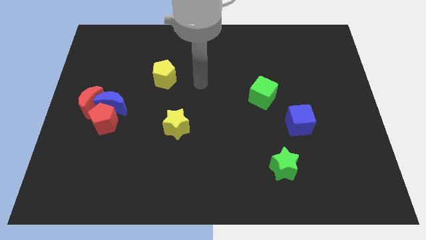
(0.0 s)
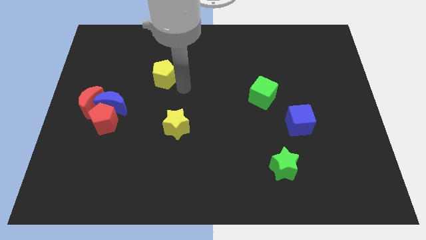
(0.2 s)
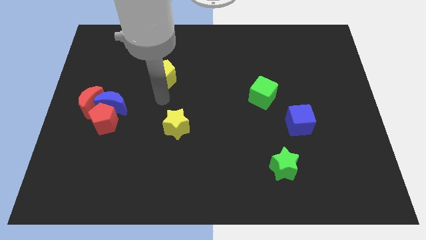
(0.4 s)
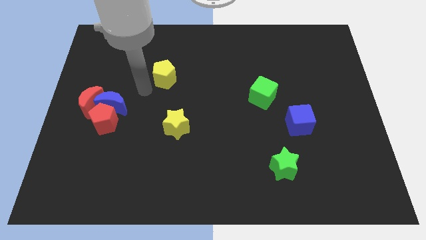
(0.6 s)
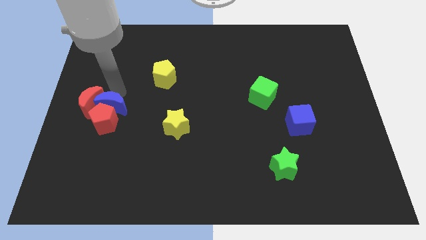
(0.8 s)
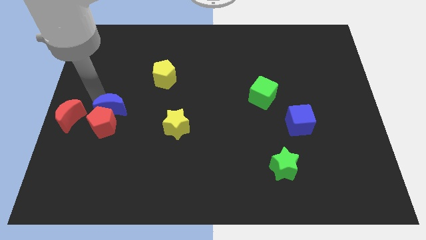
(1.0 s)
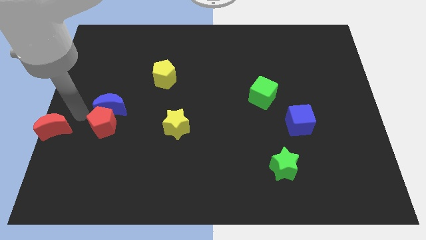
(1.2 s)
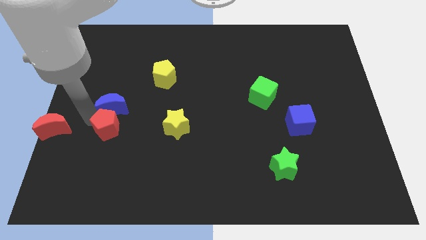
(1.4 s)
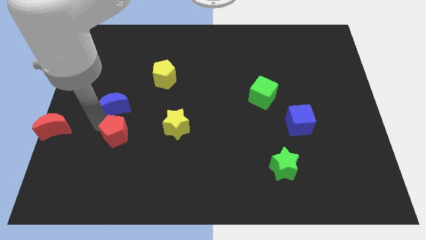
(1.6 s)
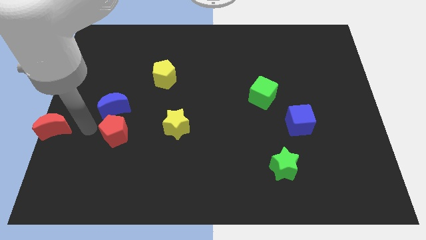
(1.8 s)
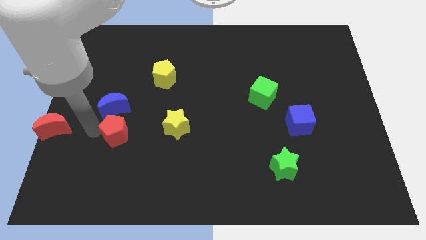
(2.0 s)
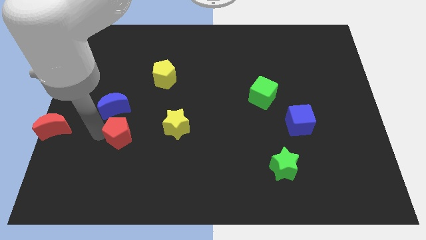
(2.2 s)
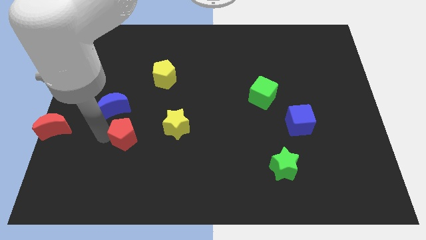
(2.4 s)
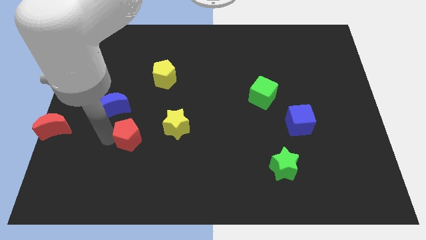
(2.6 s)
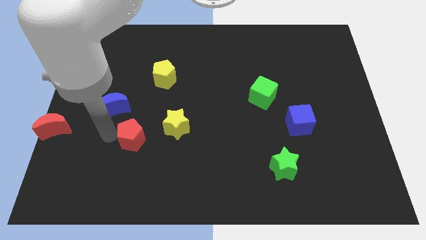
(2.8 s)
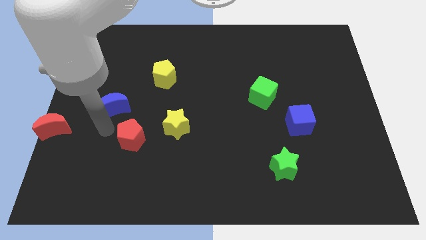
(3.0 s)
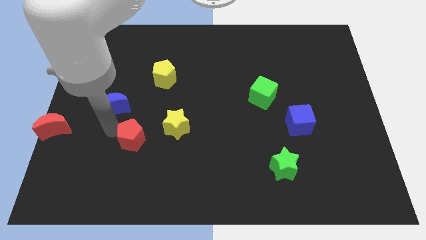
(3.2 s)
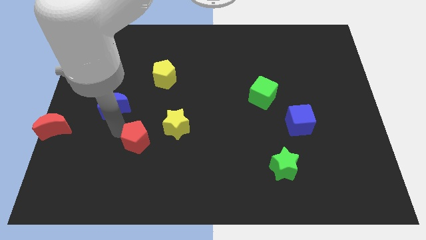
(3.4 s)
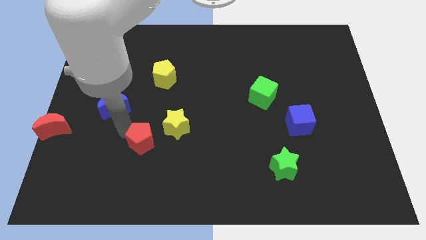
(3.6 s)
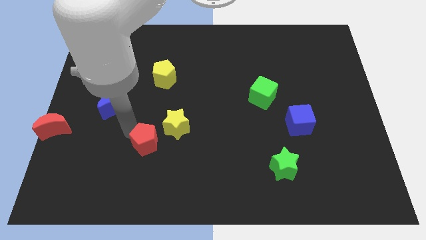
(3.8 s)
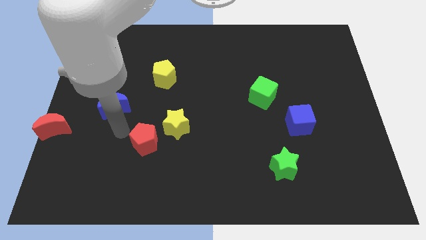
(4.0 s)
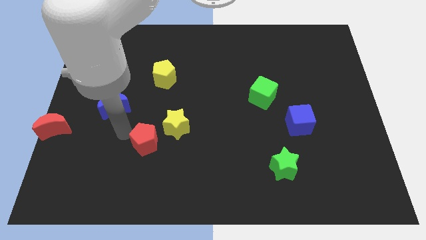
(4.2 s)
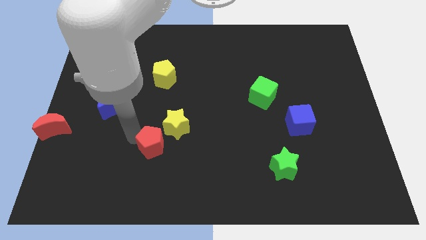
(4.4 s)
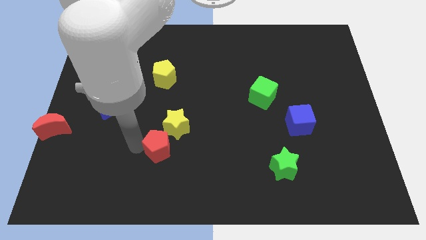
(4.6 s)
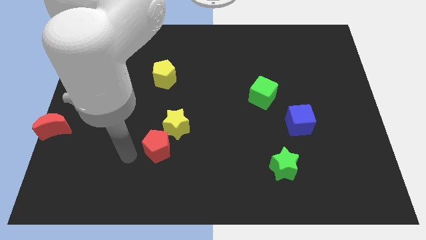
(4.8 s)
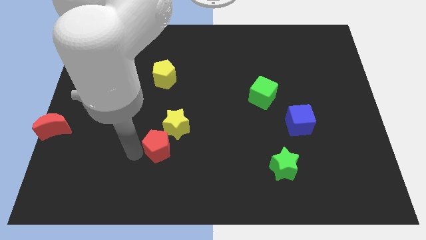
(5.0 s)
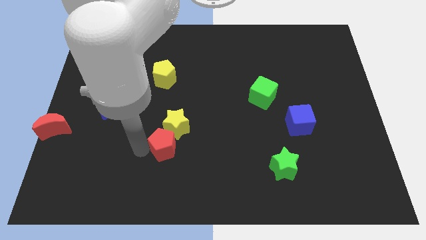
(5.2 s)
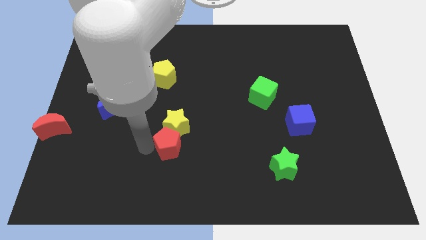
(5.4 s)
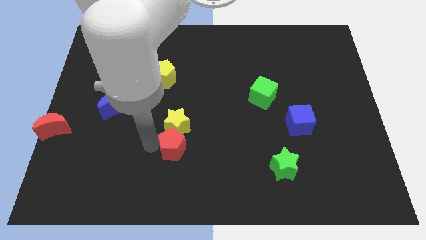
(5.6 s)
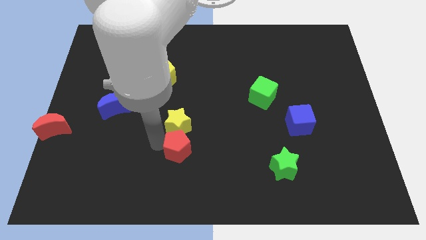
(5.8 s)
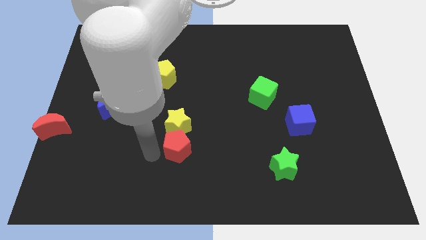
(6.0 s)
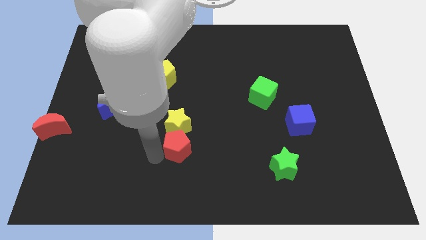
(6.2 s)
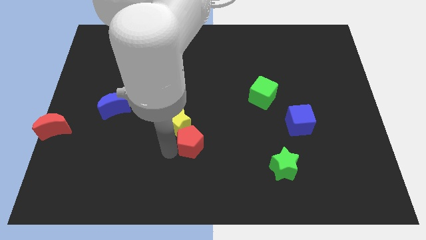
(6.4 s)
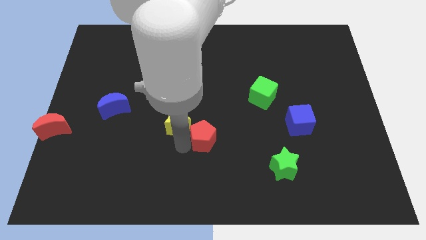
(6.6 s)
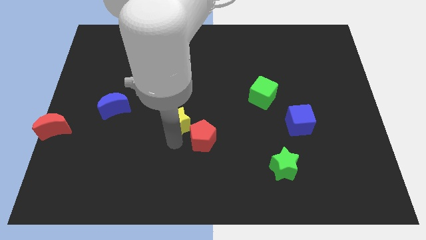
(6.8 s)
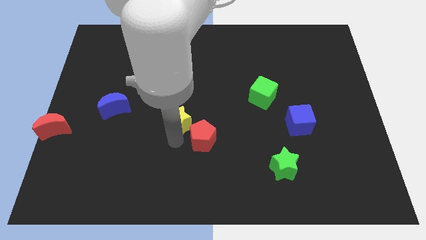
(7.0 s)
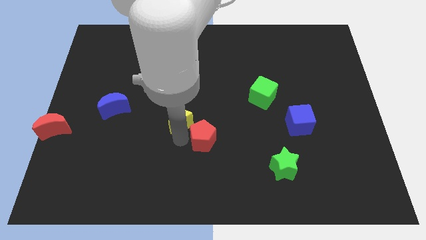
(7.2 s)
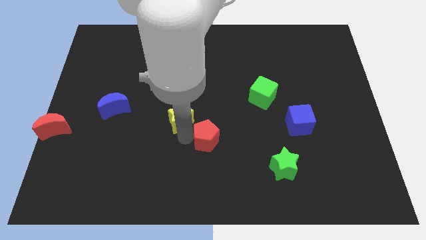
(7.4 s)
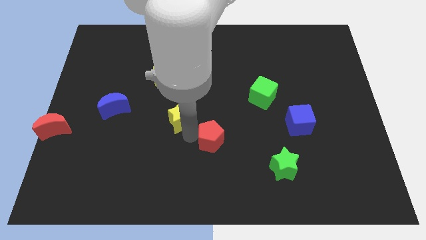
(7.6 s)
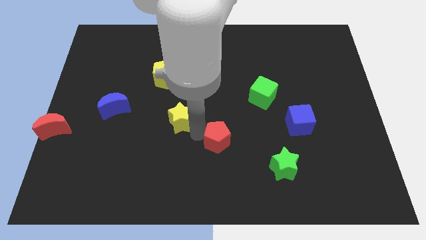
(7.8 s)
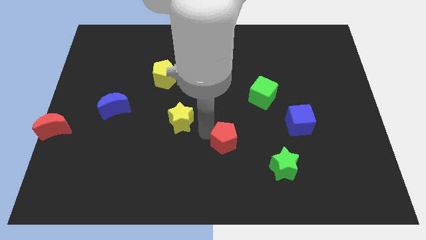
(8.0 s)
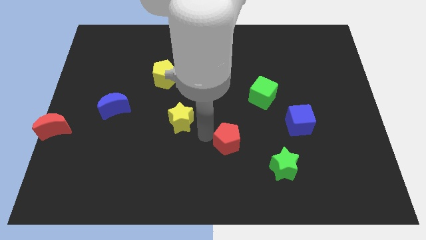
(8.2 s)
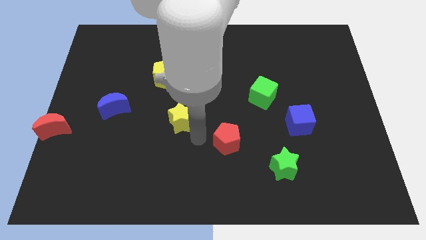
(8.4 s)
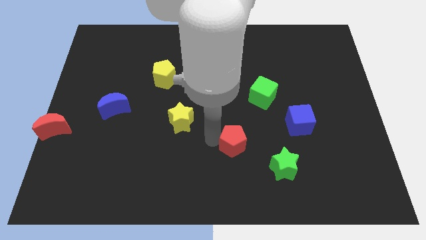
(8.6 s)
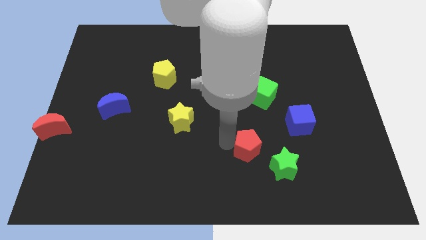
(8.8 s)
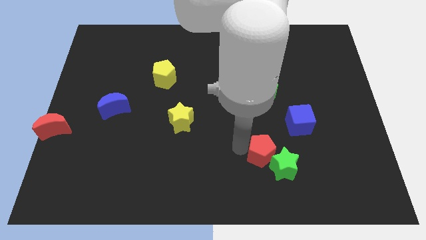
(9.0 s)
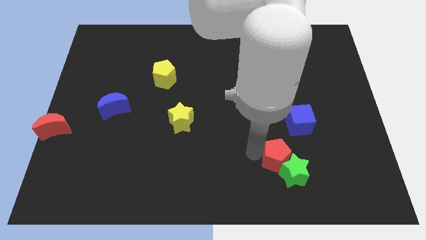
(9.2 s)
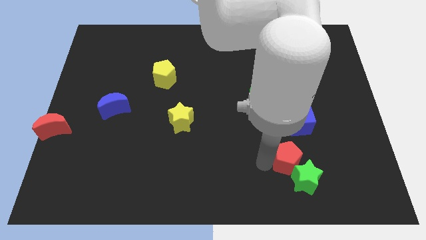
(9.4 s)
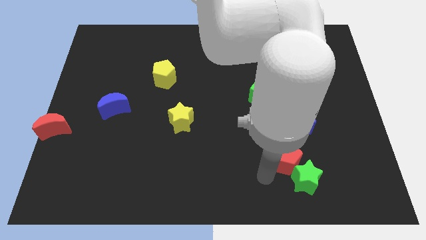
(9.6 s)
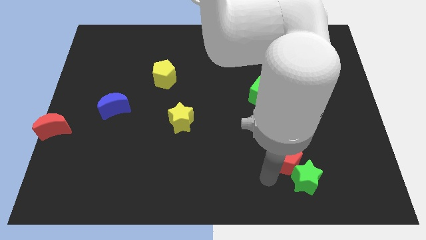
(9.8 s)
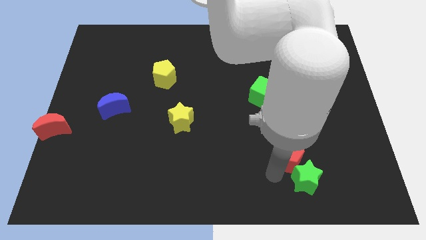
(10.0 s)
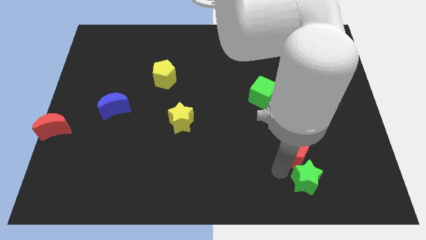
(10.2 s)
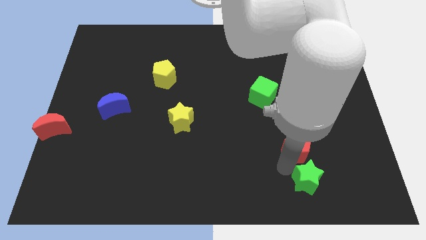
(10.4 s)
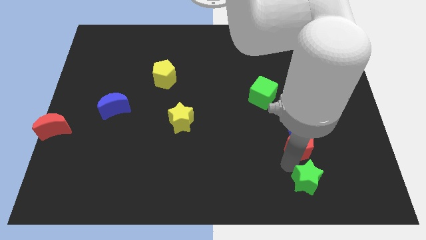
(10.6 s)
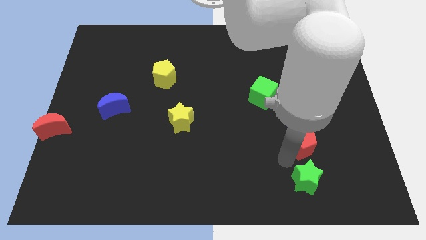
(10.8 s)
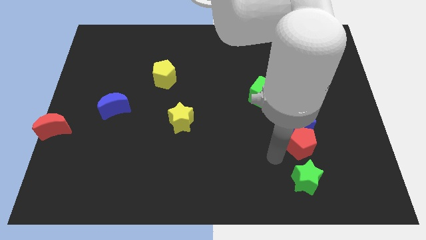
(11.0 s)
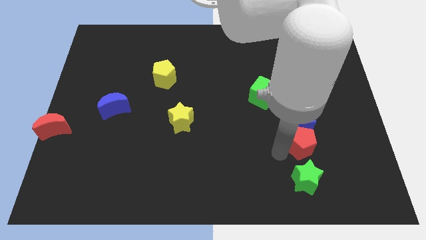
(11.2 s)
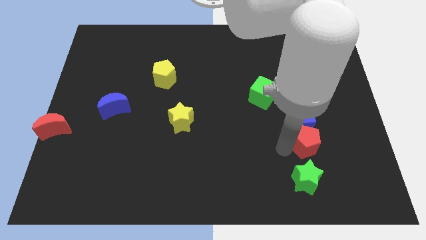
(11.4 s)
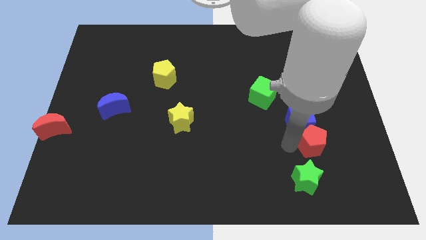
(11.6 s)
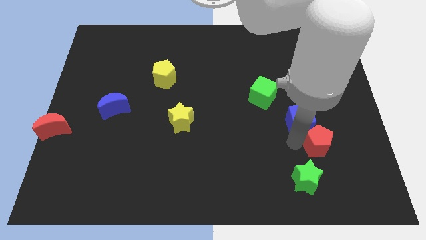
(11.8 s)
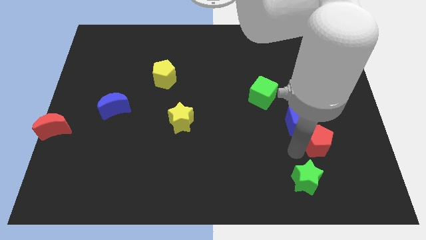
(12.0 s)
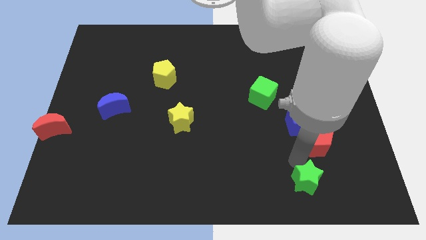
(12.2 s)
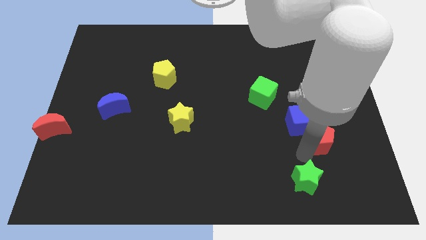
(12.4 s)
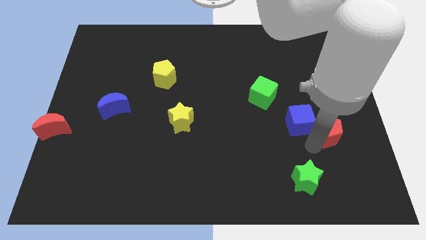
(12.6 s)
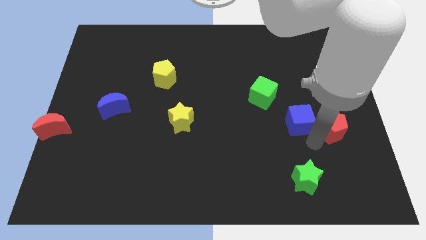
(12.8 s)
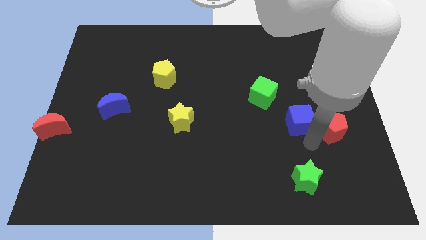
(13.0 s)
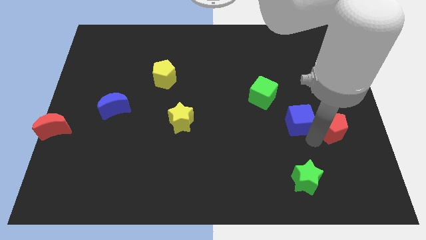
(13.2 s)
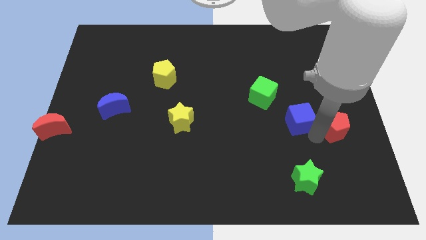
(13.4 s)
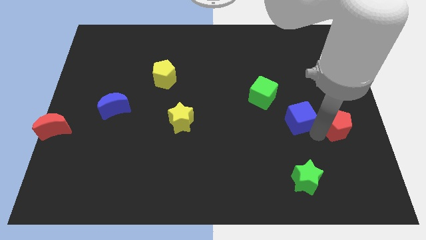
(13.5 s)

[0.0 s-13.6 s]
push the red pentagon to the center right
